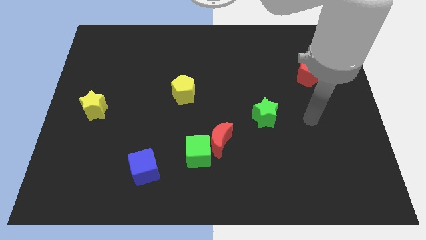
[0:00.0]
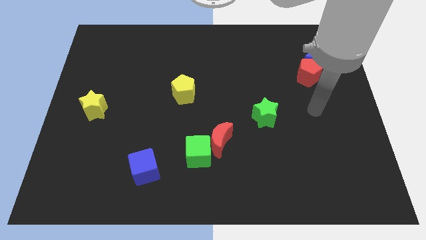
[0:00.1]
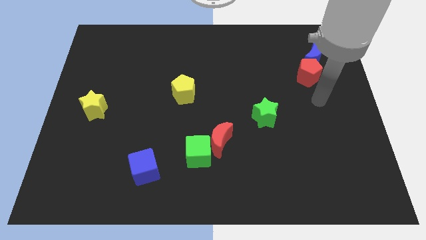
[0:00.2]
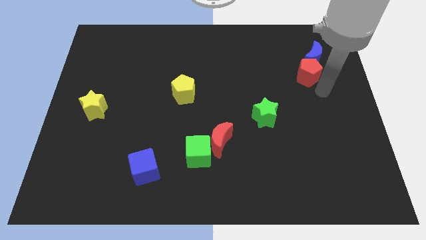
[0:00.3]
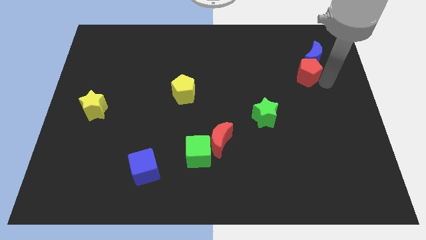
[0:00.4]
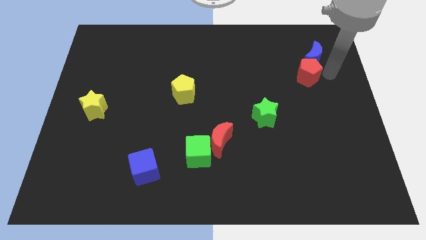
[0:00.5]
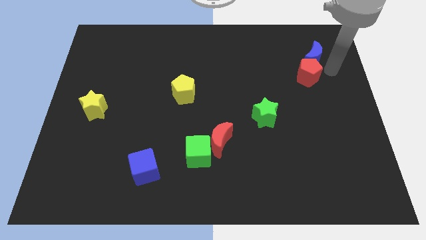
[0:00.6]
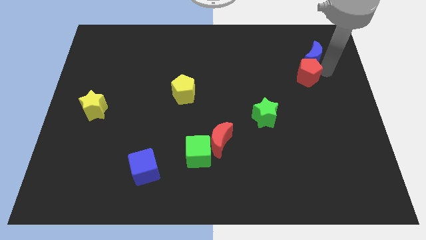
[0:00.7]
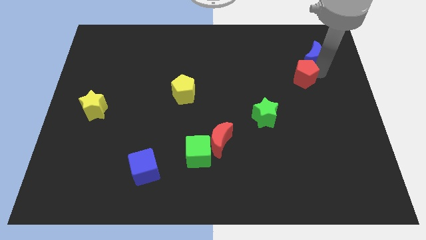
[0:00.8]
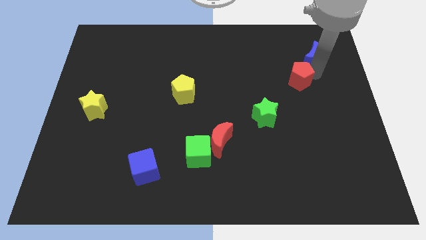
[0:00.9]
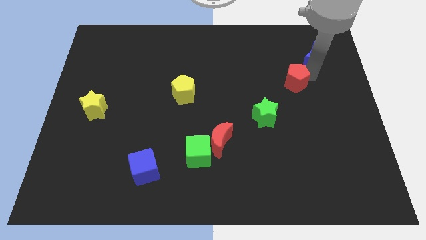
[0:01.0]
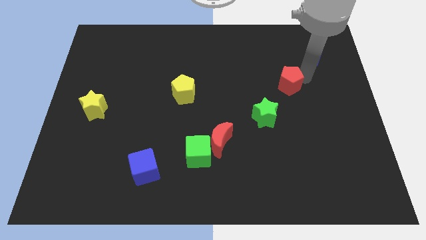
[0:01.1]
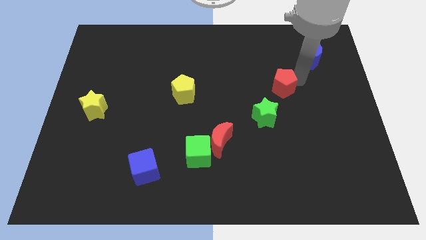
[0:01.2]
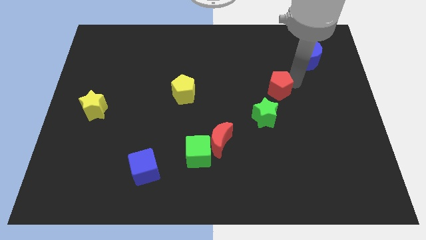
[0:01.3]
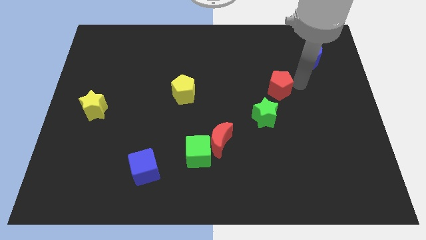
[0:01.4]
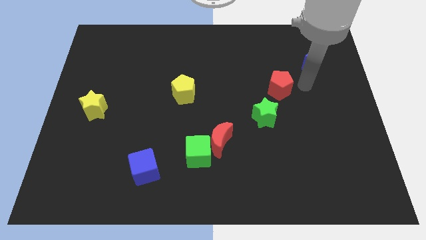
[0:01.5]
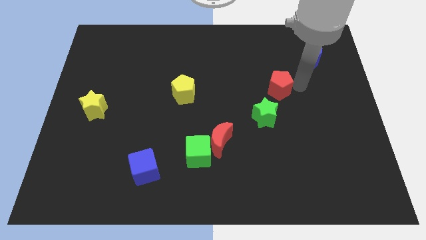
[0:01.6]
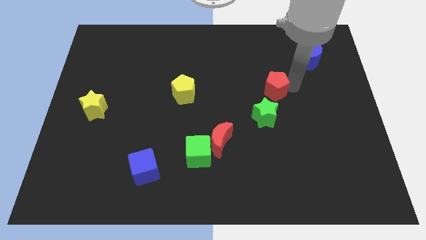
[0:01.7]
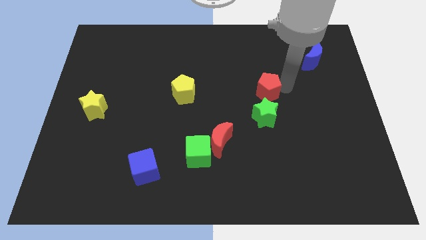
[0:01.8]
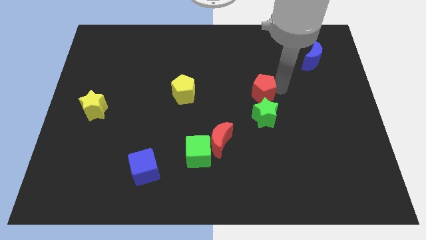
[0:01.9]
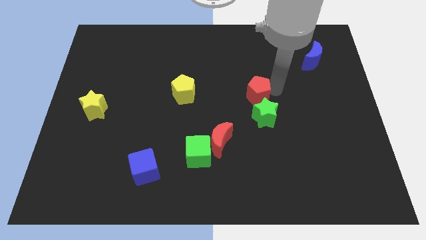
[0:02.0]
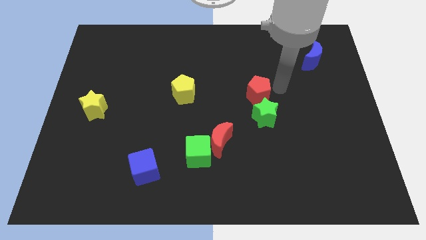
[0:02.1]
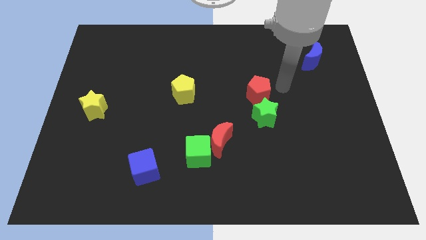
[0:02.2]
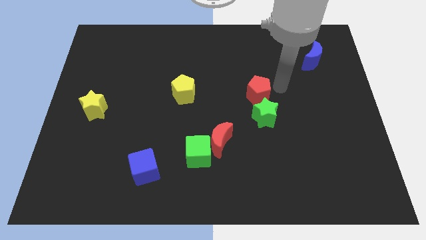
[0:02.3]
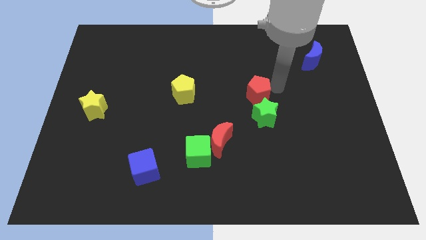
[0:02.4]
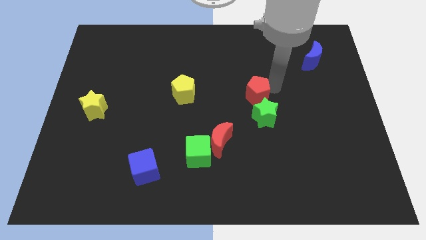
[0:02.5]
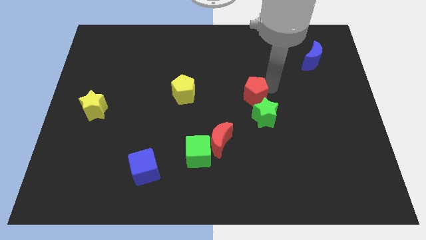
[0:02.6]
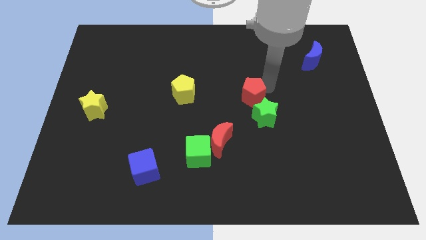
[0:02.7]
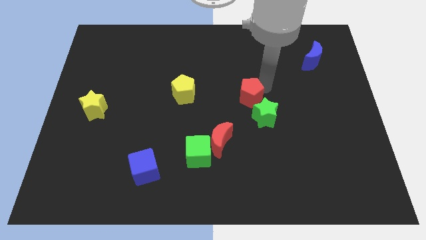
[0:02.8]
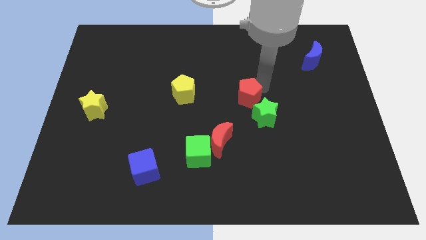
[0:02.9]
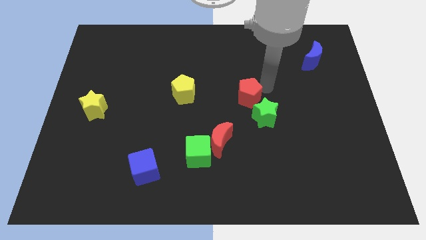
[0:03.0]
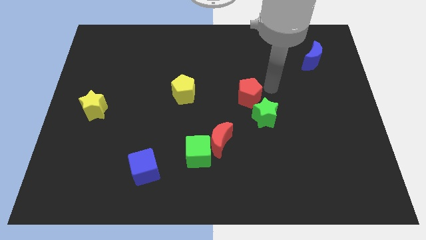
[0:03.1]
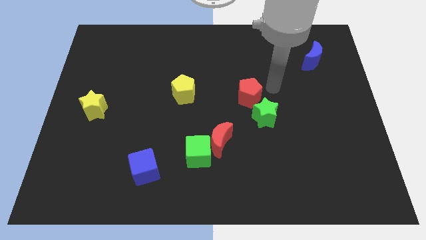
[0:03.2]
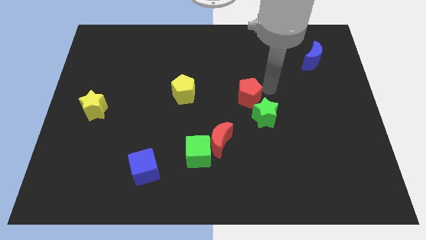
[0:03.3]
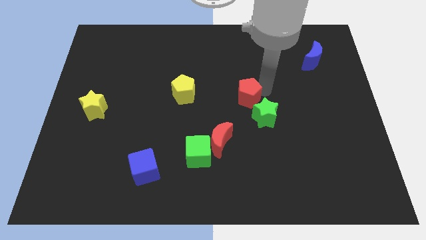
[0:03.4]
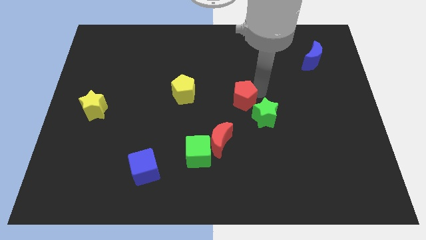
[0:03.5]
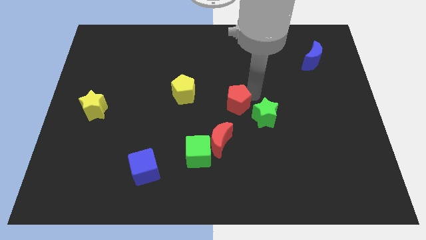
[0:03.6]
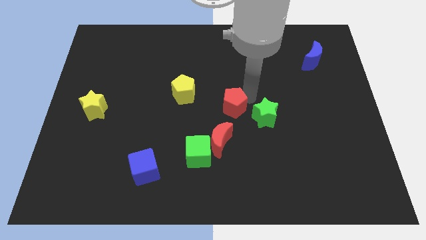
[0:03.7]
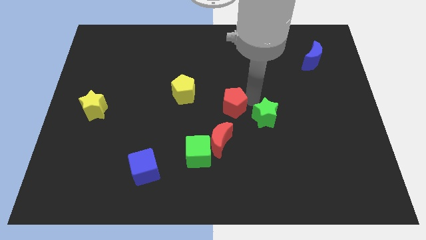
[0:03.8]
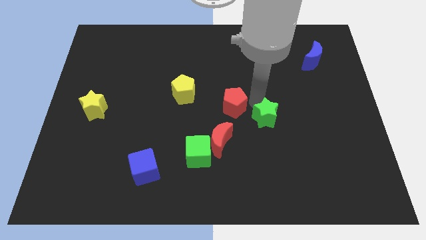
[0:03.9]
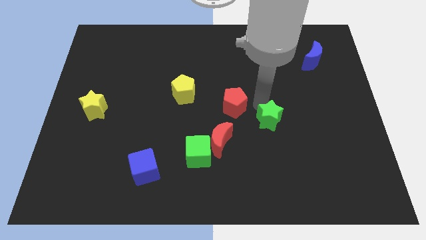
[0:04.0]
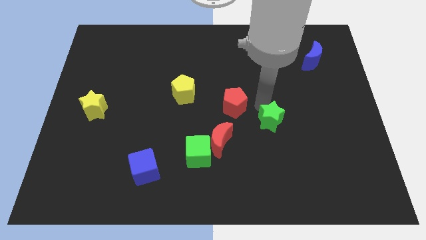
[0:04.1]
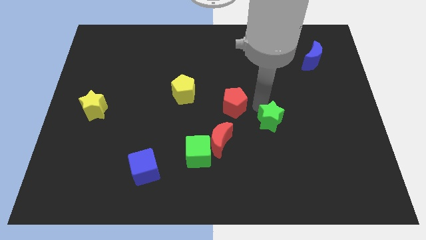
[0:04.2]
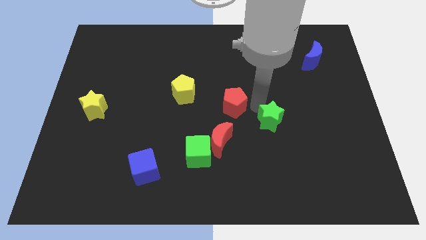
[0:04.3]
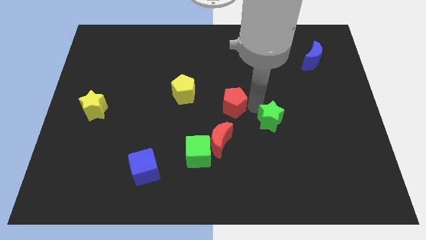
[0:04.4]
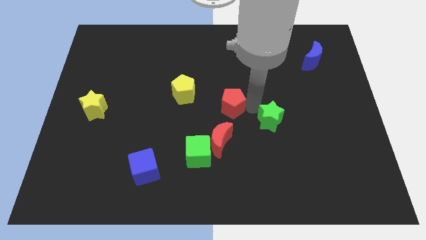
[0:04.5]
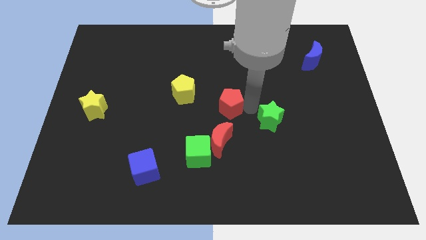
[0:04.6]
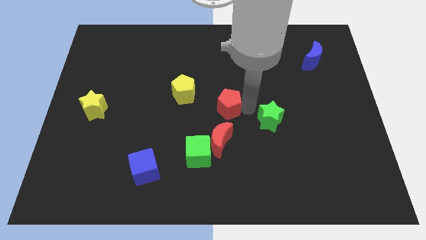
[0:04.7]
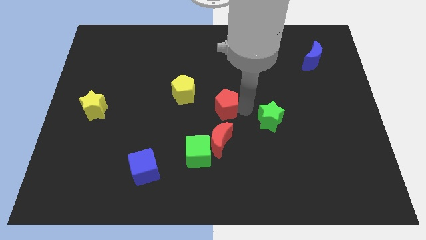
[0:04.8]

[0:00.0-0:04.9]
move the red pentagon diagonally down and to the right of the yellow pentagon

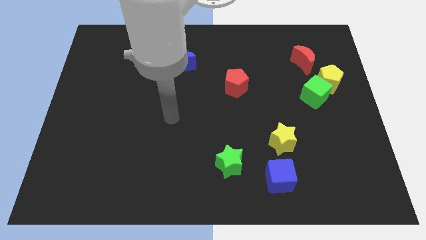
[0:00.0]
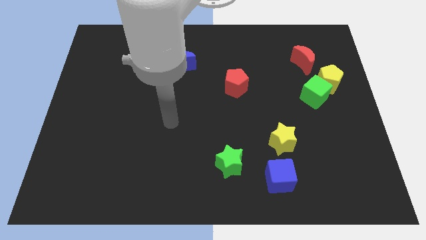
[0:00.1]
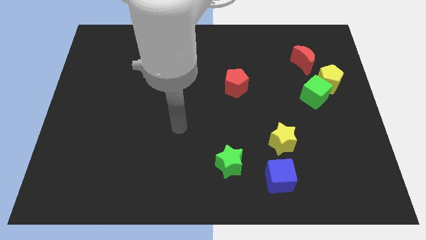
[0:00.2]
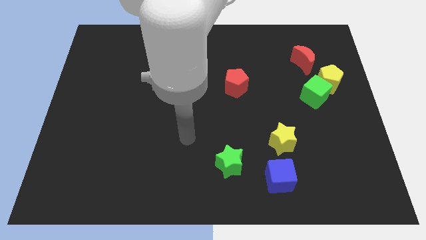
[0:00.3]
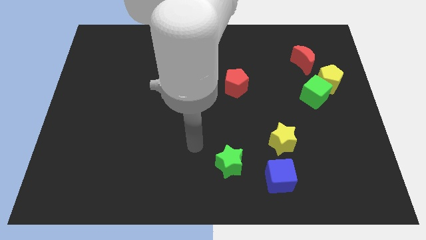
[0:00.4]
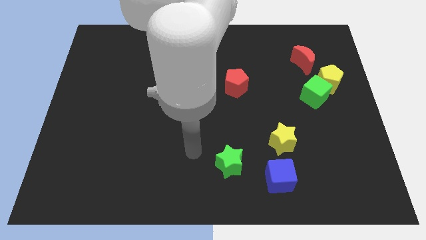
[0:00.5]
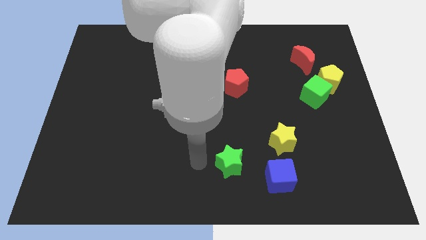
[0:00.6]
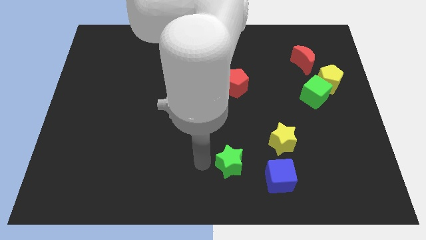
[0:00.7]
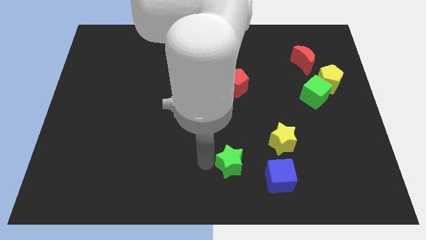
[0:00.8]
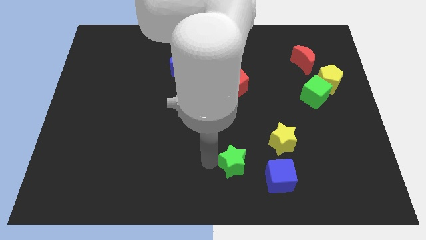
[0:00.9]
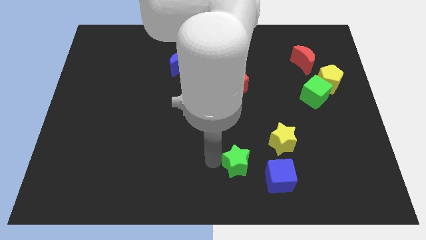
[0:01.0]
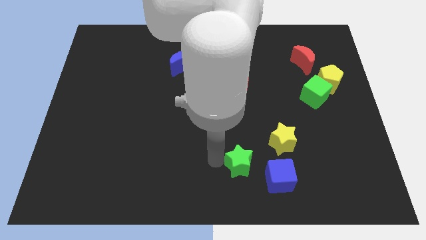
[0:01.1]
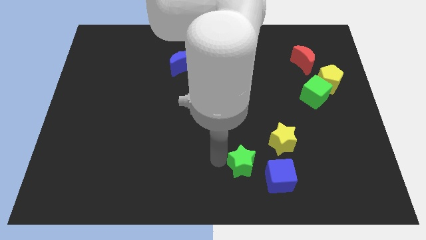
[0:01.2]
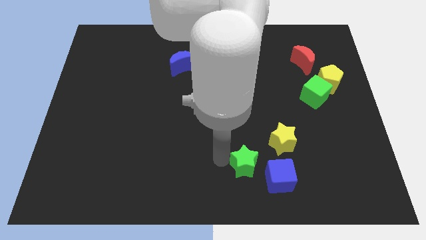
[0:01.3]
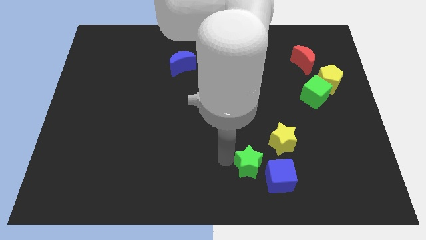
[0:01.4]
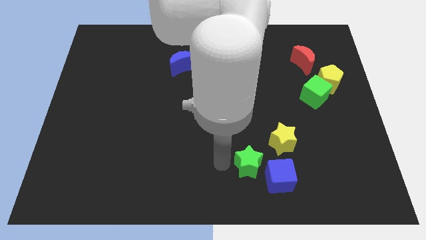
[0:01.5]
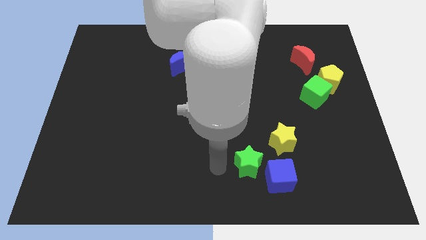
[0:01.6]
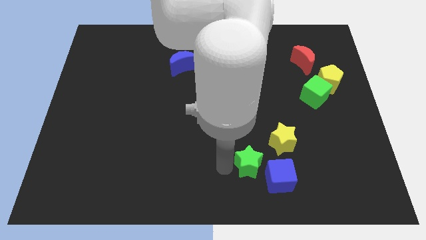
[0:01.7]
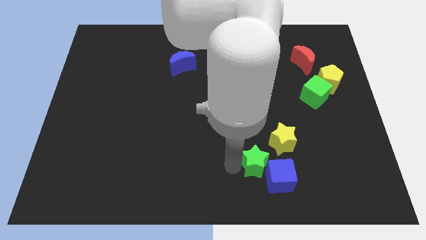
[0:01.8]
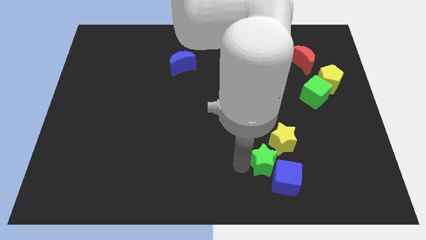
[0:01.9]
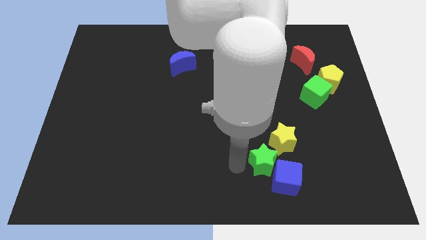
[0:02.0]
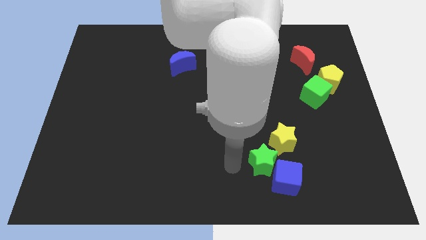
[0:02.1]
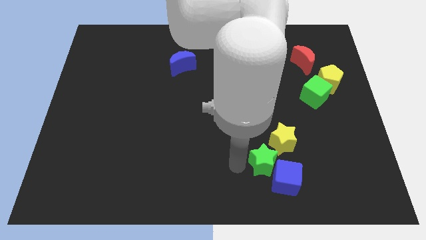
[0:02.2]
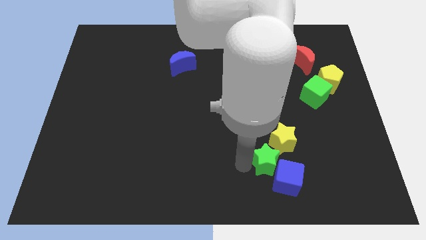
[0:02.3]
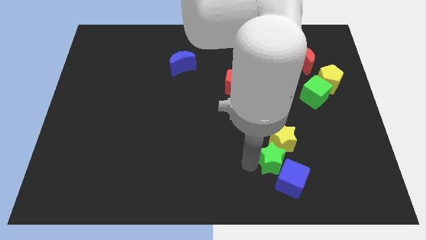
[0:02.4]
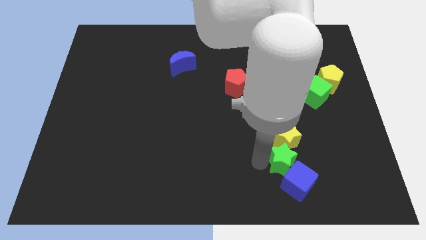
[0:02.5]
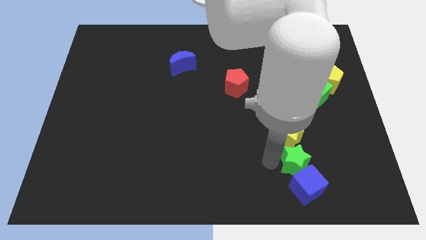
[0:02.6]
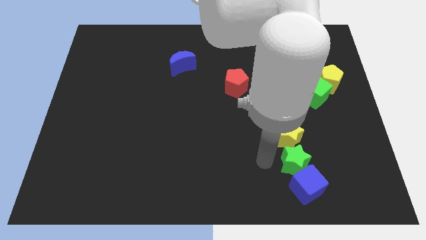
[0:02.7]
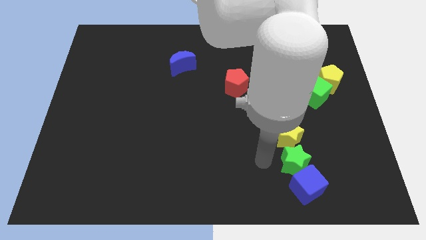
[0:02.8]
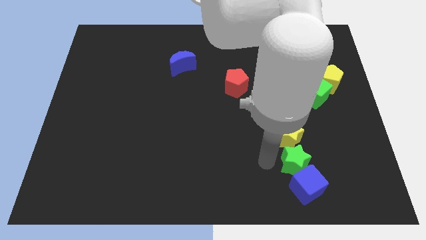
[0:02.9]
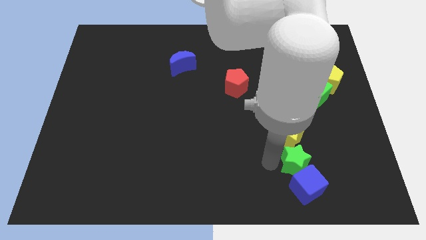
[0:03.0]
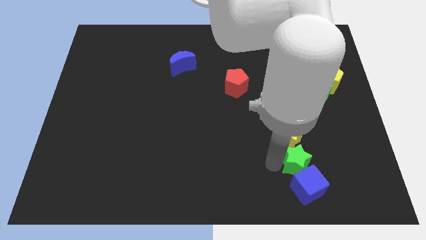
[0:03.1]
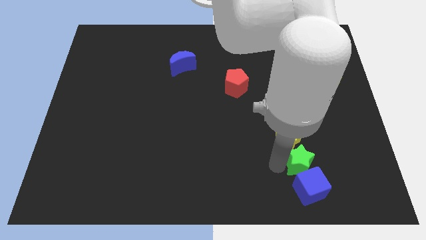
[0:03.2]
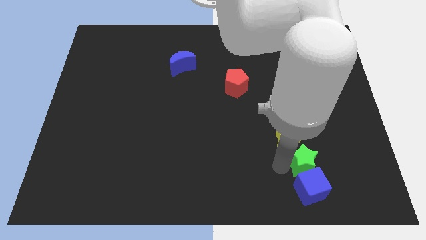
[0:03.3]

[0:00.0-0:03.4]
move the green star to the top right of the blue cube
